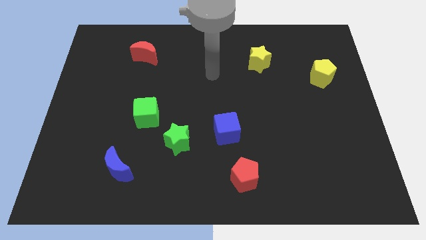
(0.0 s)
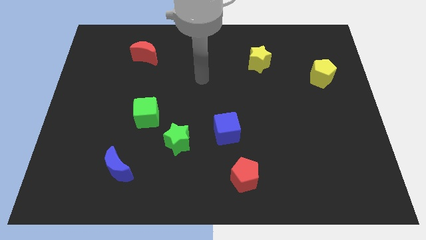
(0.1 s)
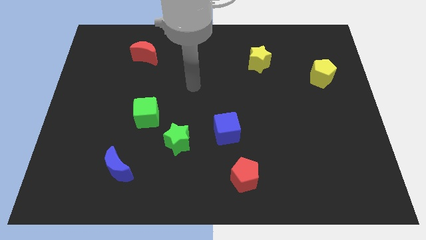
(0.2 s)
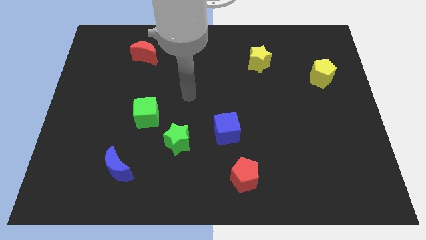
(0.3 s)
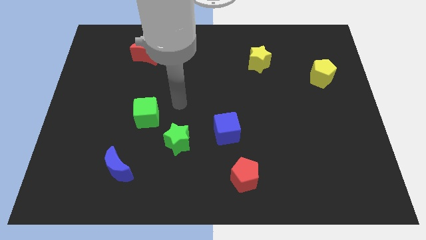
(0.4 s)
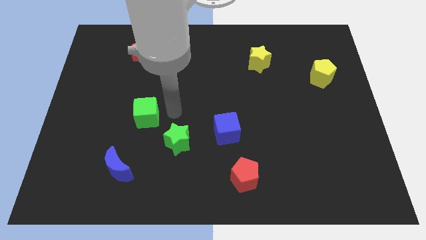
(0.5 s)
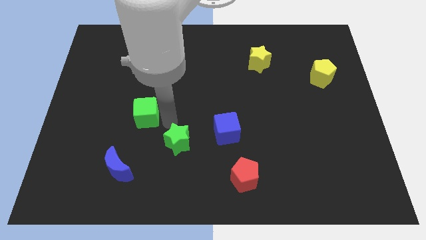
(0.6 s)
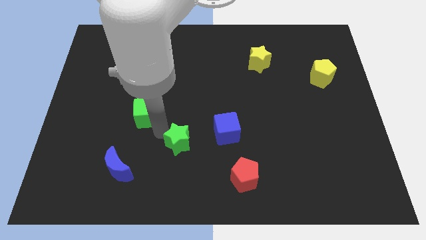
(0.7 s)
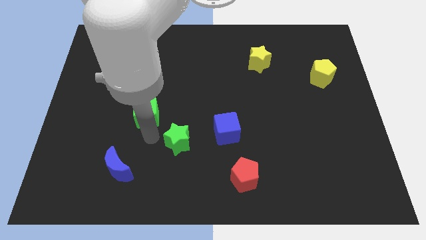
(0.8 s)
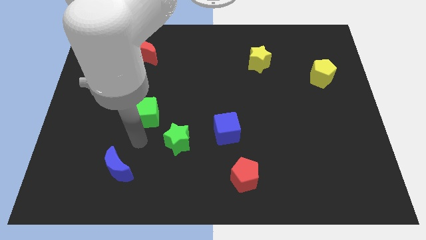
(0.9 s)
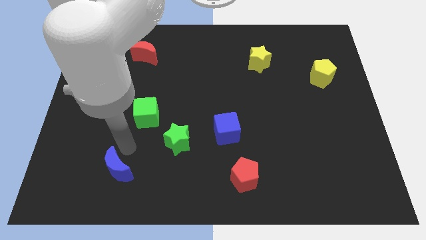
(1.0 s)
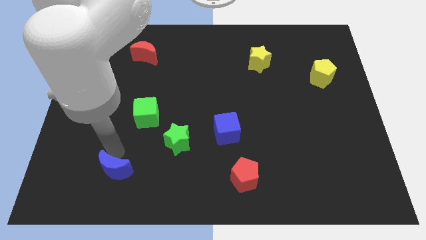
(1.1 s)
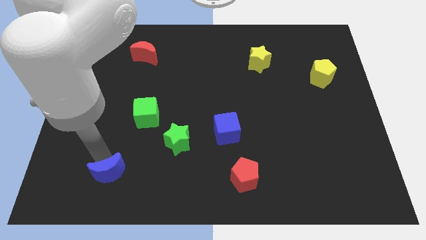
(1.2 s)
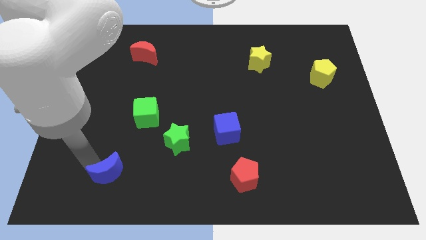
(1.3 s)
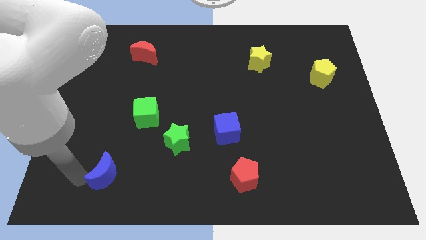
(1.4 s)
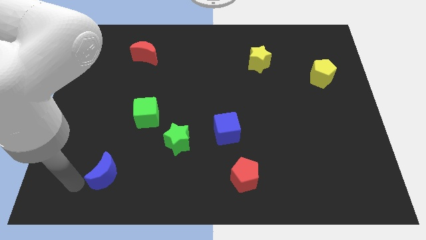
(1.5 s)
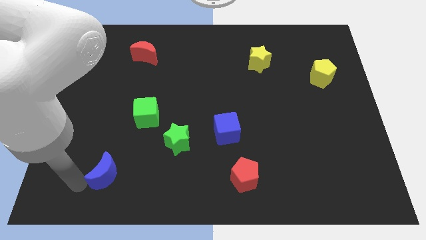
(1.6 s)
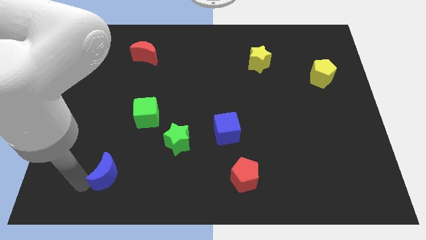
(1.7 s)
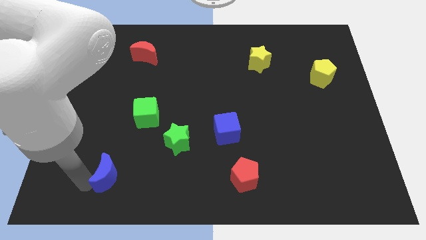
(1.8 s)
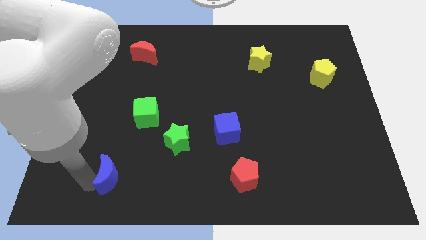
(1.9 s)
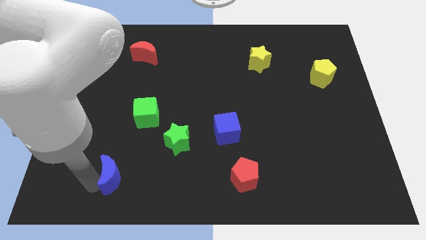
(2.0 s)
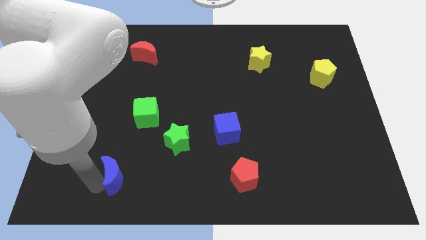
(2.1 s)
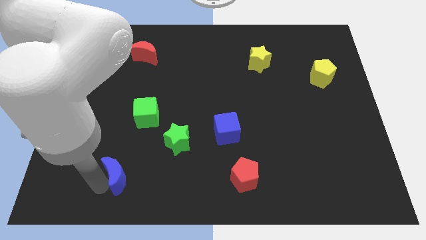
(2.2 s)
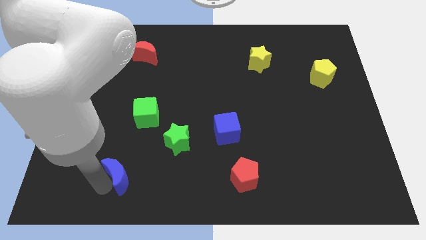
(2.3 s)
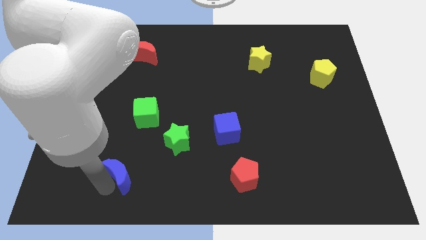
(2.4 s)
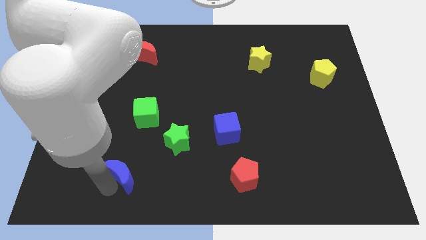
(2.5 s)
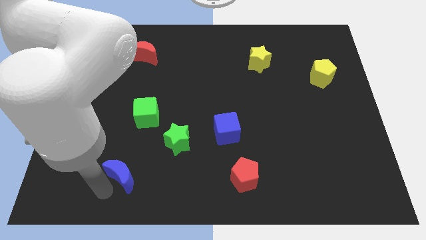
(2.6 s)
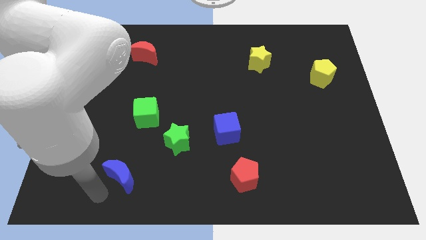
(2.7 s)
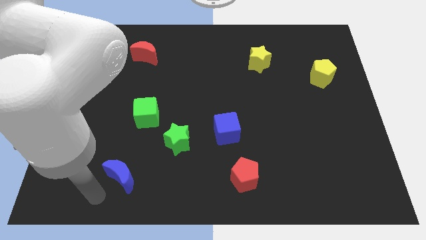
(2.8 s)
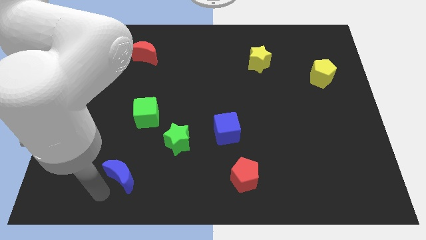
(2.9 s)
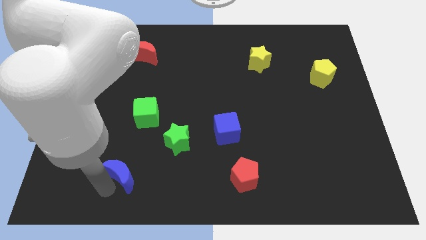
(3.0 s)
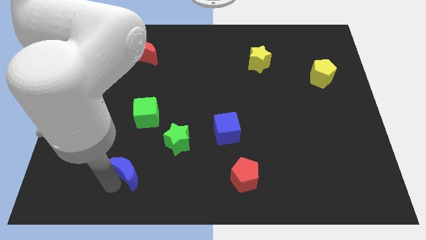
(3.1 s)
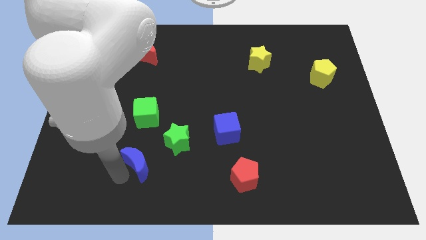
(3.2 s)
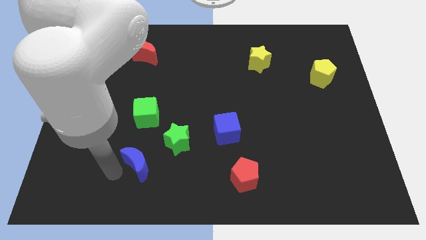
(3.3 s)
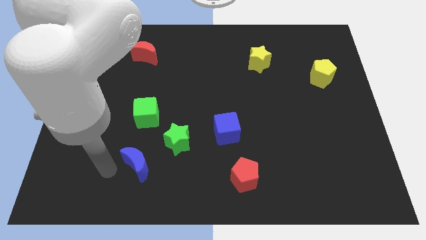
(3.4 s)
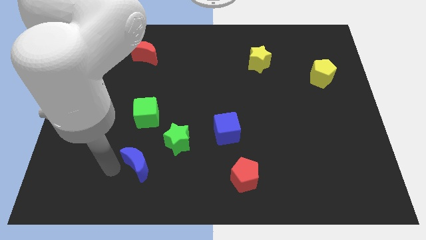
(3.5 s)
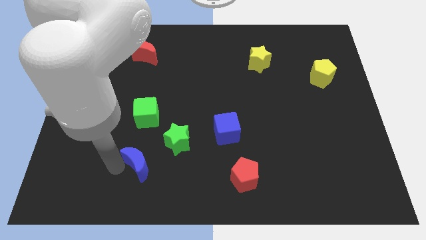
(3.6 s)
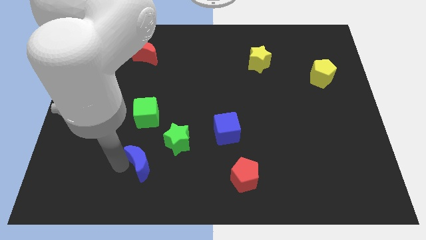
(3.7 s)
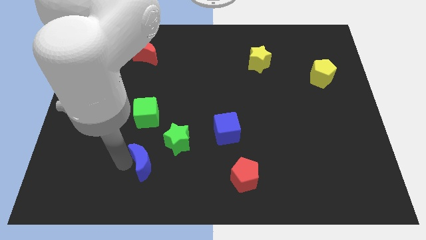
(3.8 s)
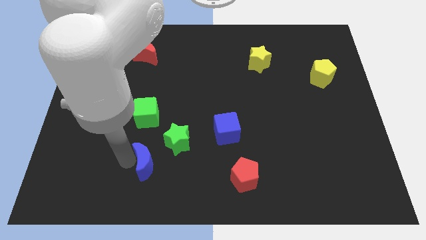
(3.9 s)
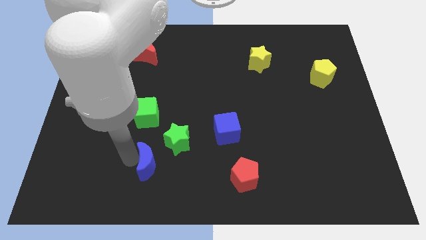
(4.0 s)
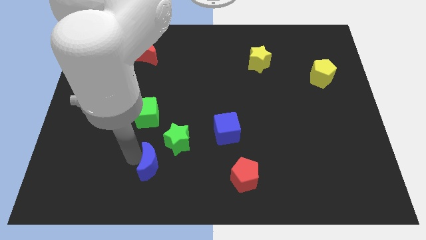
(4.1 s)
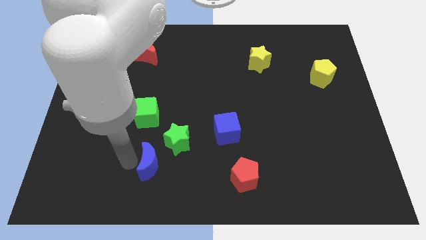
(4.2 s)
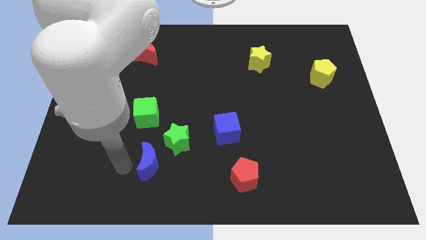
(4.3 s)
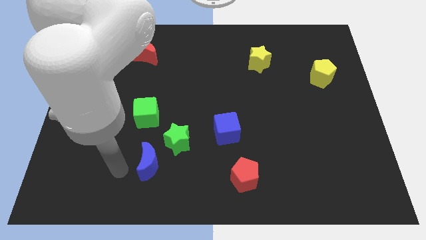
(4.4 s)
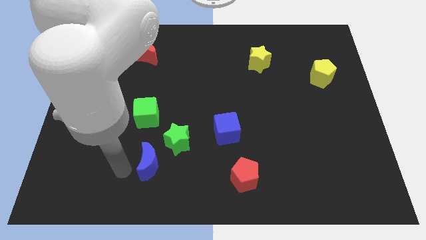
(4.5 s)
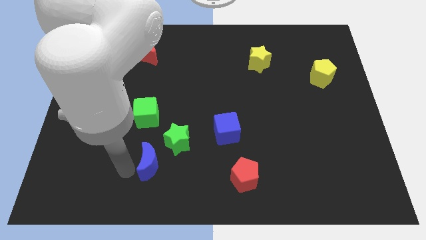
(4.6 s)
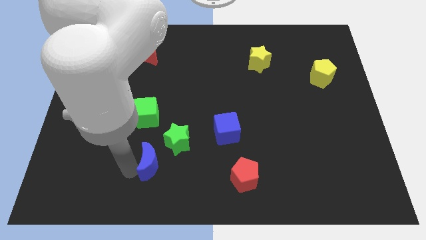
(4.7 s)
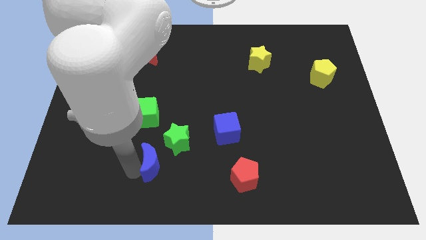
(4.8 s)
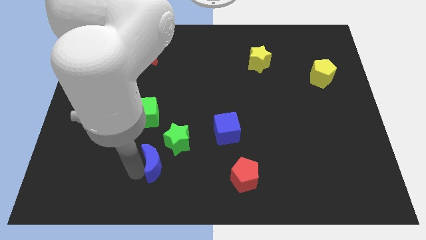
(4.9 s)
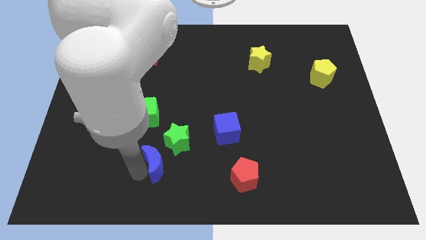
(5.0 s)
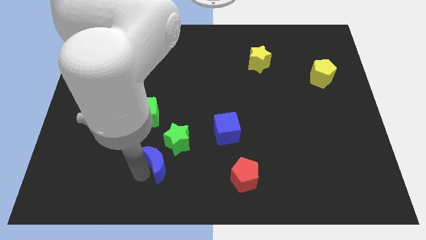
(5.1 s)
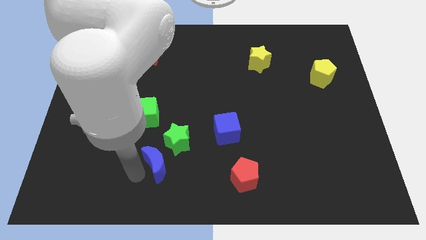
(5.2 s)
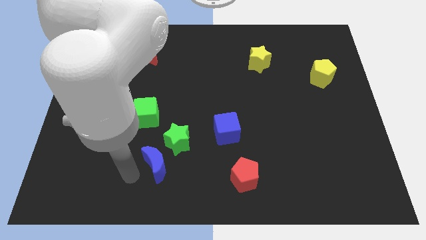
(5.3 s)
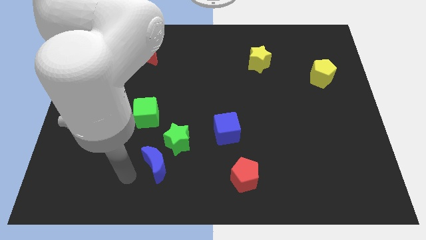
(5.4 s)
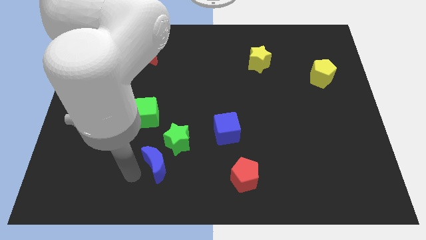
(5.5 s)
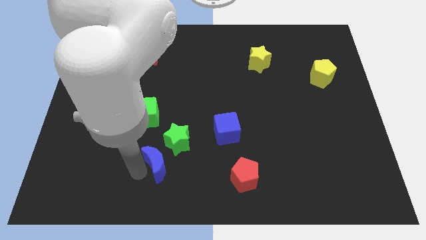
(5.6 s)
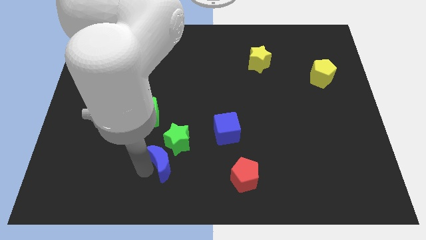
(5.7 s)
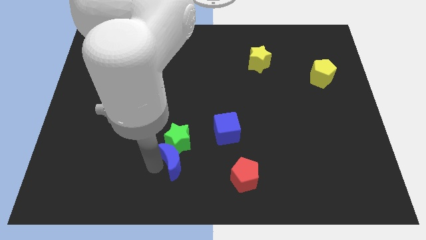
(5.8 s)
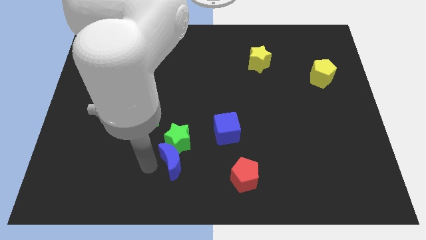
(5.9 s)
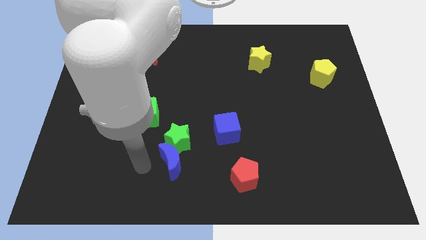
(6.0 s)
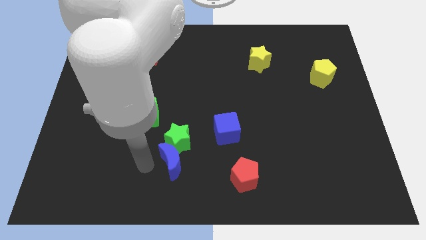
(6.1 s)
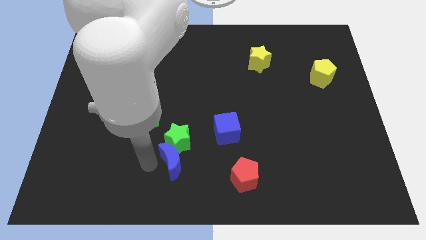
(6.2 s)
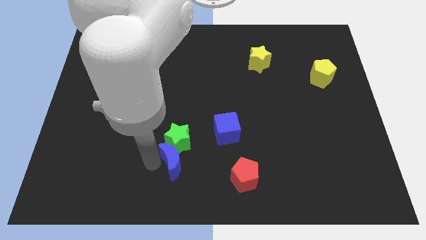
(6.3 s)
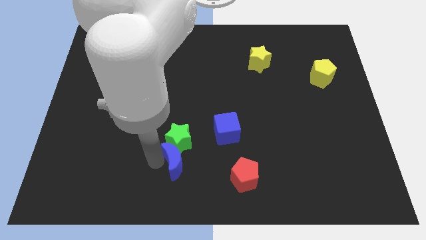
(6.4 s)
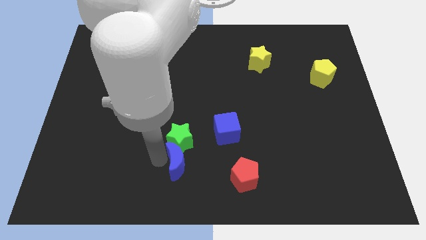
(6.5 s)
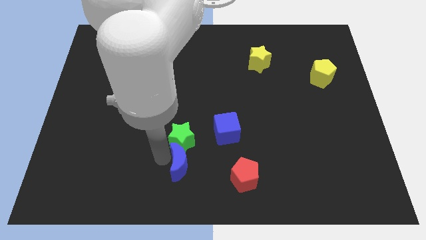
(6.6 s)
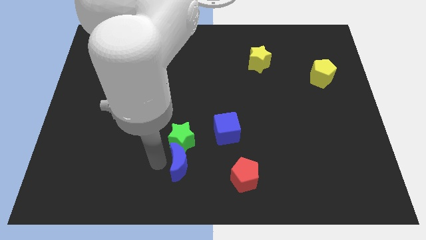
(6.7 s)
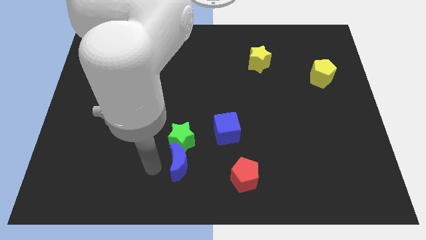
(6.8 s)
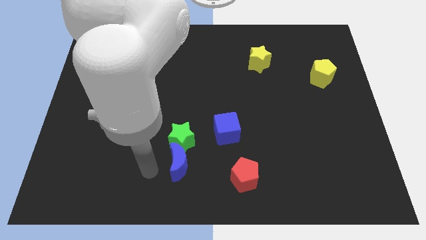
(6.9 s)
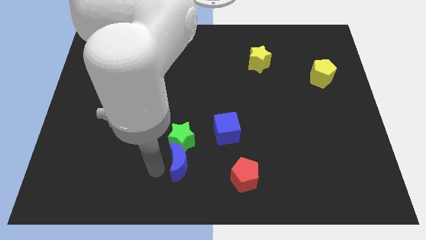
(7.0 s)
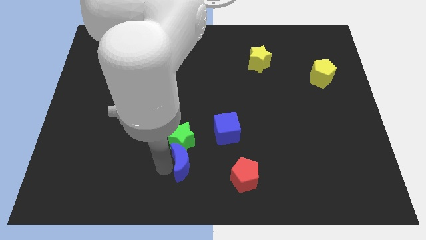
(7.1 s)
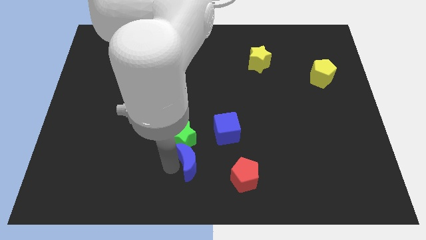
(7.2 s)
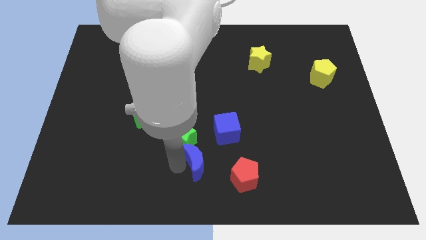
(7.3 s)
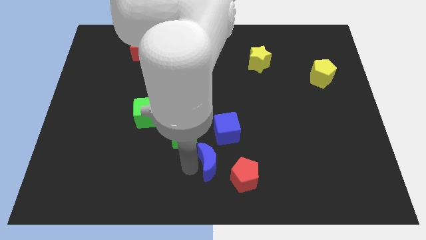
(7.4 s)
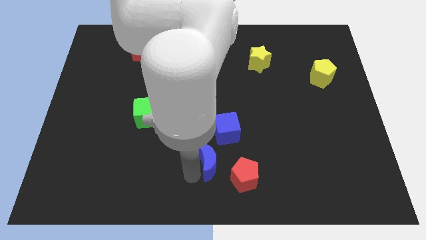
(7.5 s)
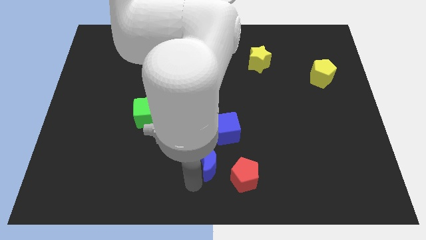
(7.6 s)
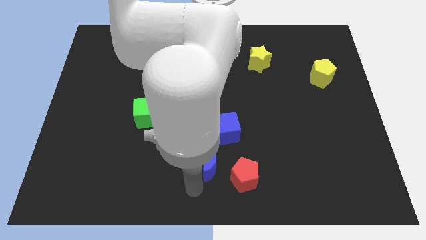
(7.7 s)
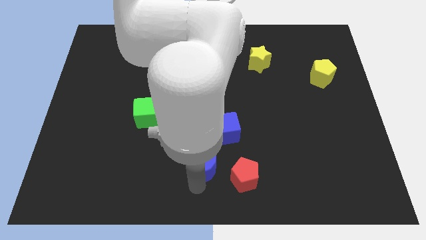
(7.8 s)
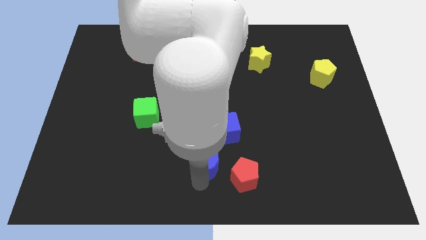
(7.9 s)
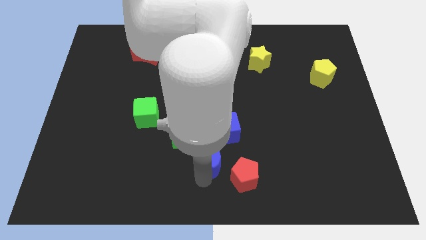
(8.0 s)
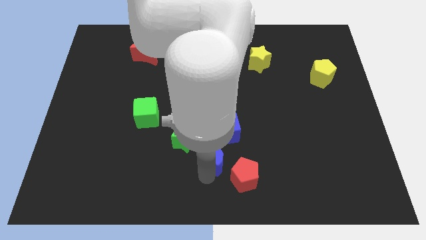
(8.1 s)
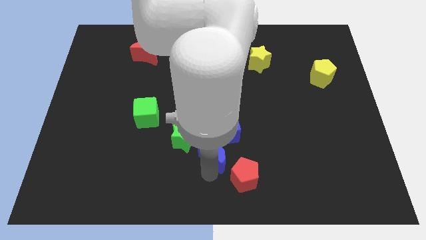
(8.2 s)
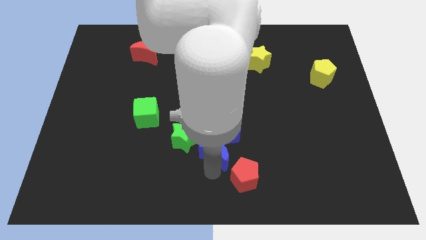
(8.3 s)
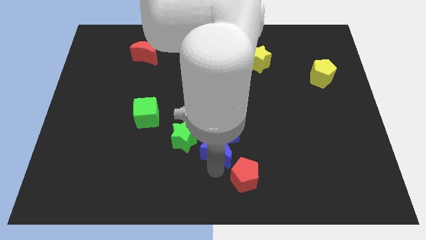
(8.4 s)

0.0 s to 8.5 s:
push the blue moon close to the blue cube
